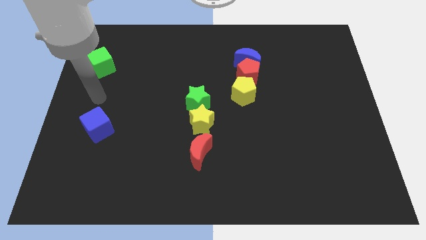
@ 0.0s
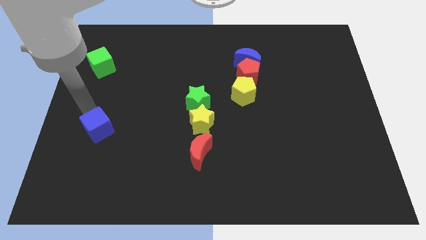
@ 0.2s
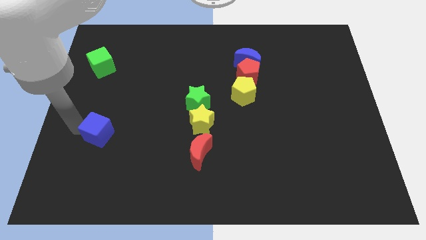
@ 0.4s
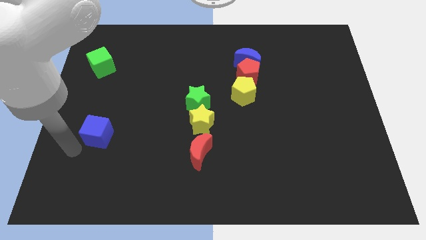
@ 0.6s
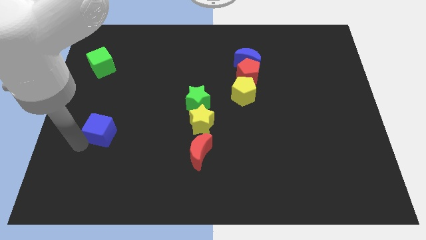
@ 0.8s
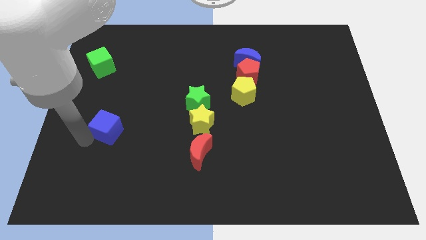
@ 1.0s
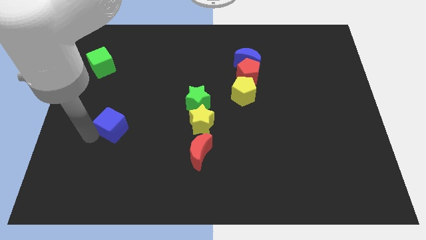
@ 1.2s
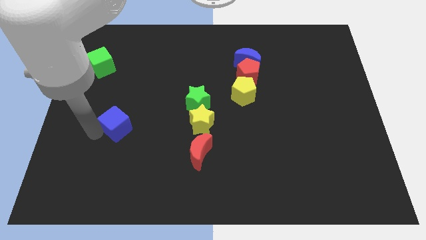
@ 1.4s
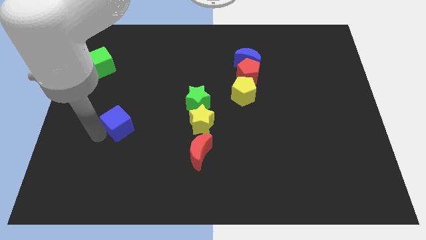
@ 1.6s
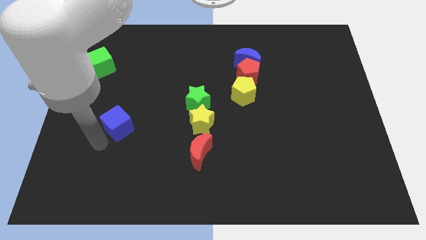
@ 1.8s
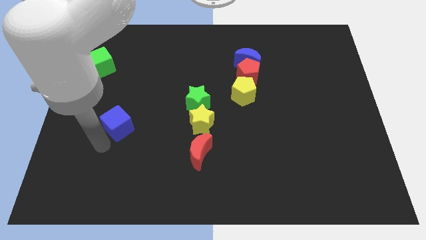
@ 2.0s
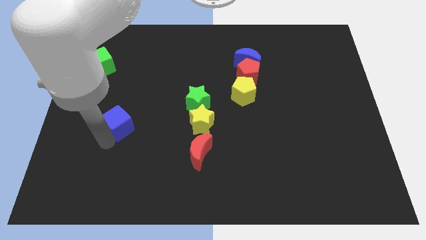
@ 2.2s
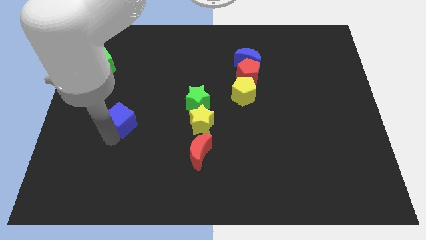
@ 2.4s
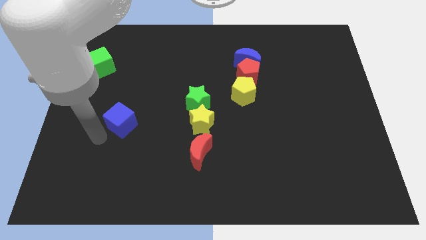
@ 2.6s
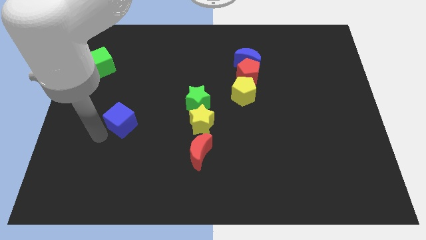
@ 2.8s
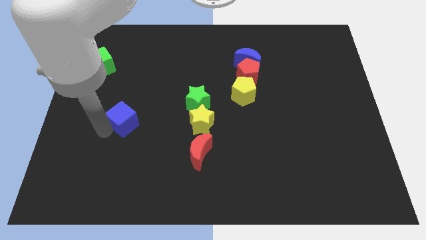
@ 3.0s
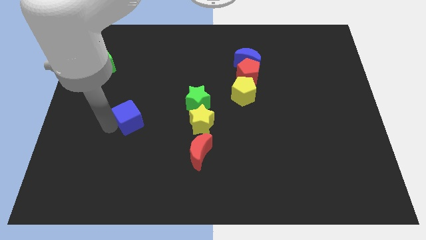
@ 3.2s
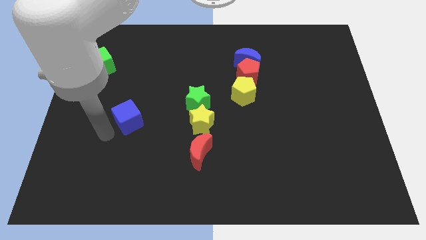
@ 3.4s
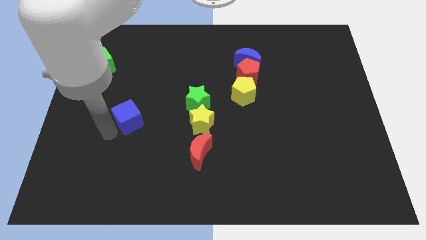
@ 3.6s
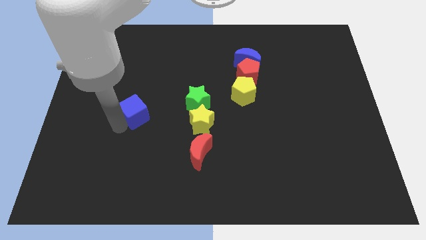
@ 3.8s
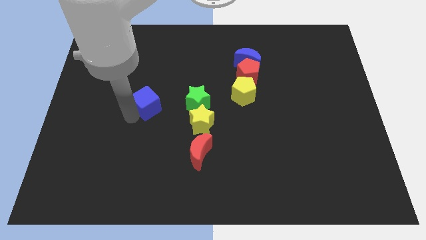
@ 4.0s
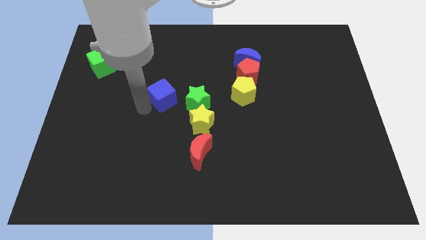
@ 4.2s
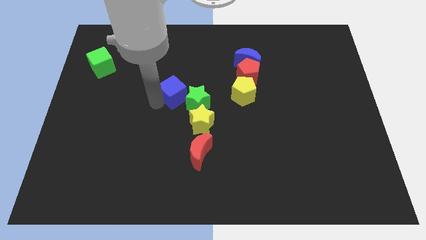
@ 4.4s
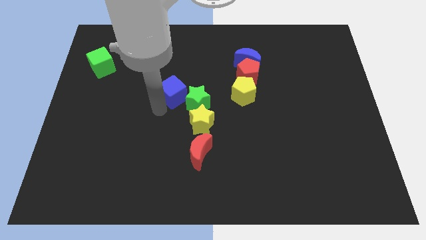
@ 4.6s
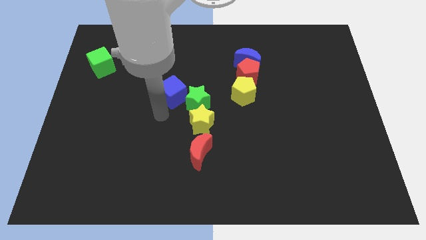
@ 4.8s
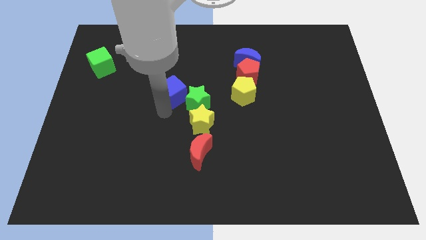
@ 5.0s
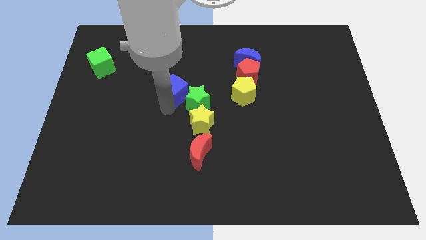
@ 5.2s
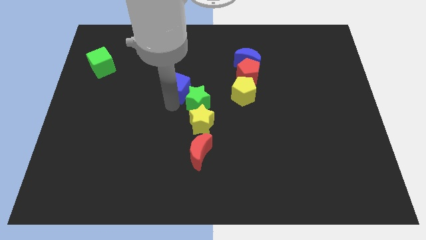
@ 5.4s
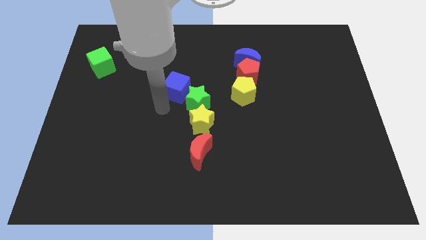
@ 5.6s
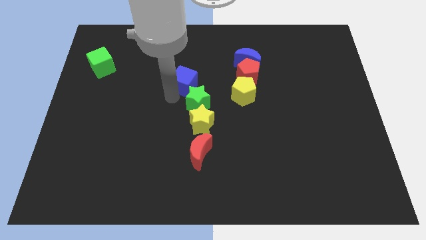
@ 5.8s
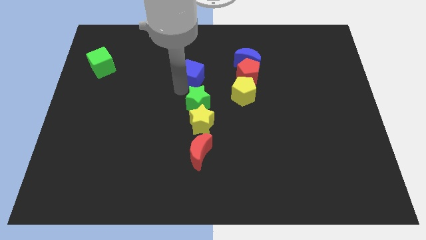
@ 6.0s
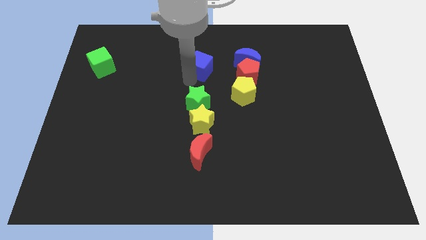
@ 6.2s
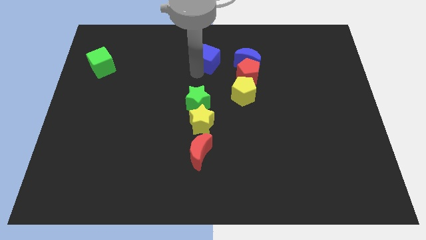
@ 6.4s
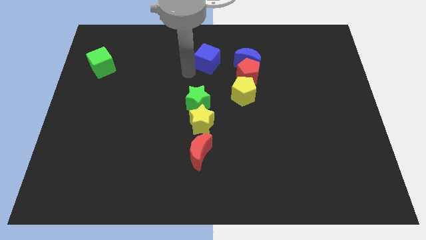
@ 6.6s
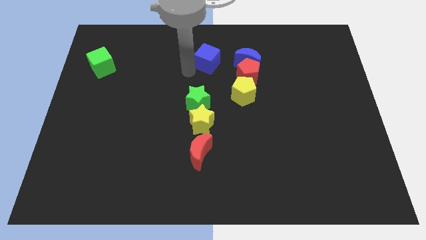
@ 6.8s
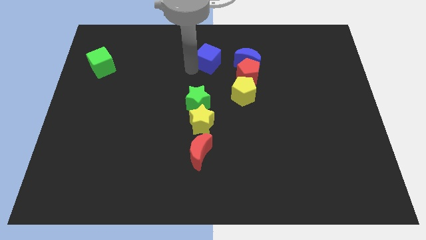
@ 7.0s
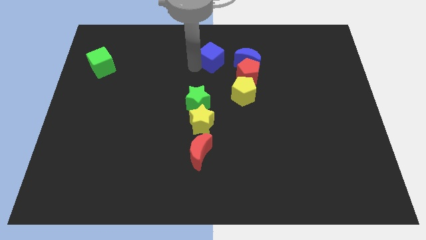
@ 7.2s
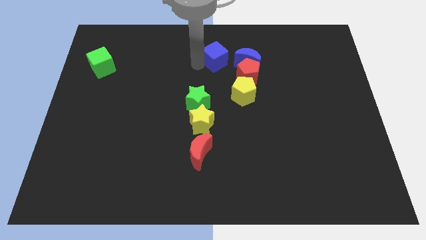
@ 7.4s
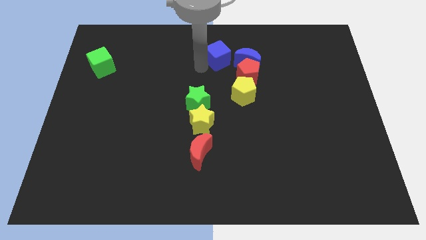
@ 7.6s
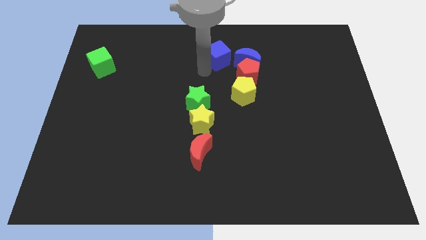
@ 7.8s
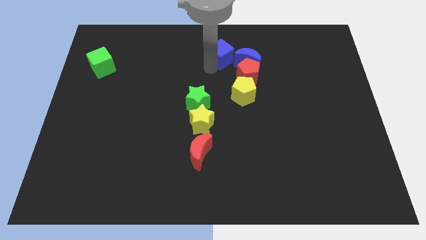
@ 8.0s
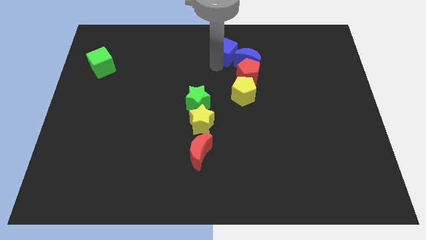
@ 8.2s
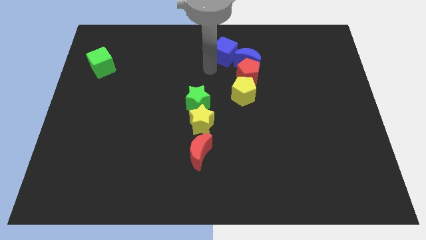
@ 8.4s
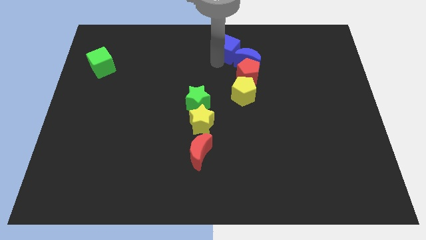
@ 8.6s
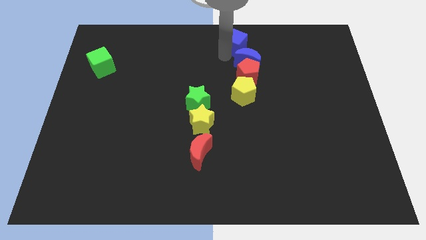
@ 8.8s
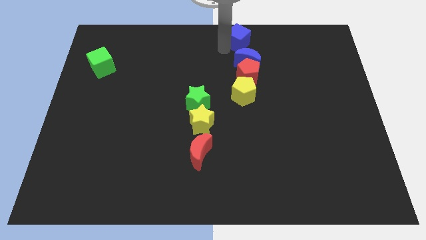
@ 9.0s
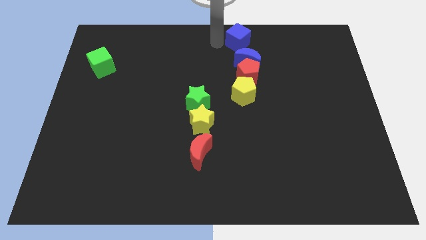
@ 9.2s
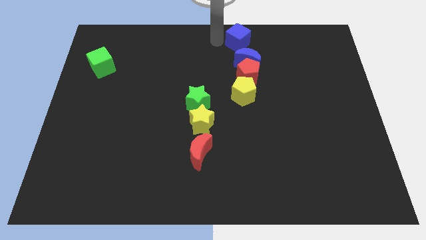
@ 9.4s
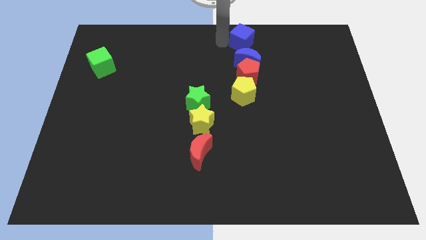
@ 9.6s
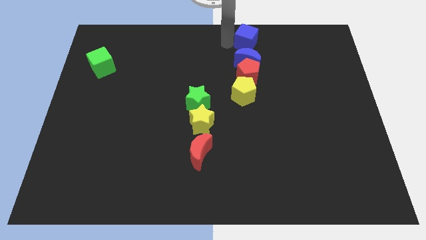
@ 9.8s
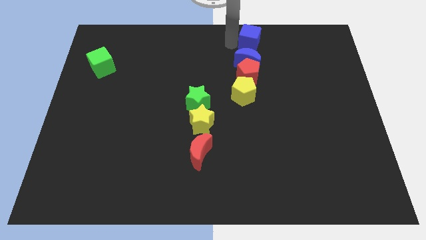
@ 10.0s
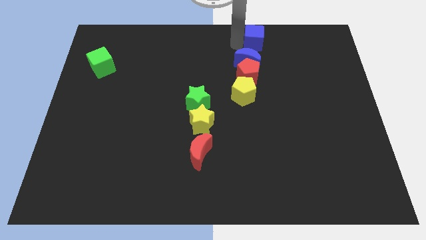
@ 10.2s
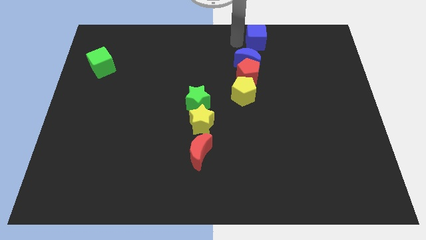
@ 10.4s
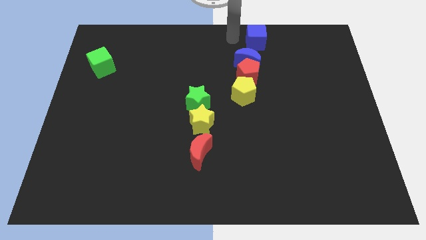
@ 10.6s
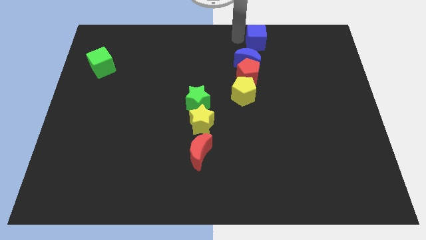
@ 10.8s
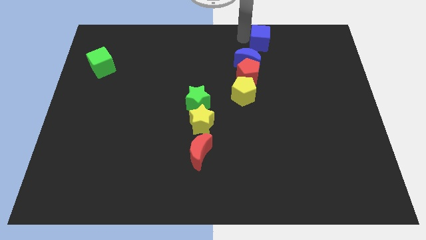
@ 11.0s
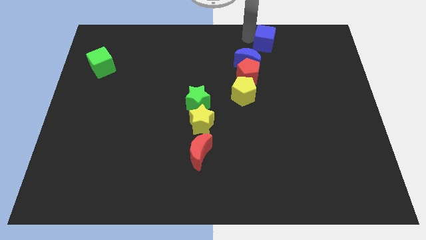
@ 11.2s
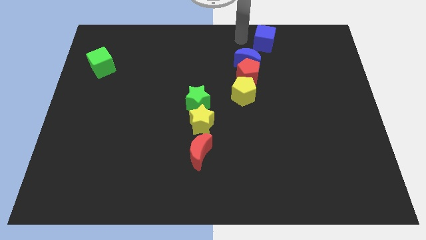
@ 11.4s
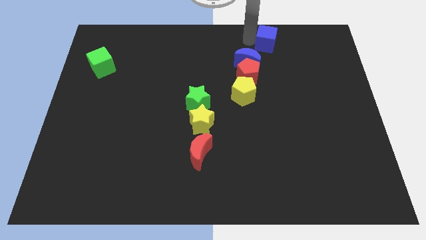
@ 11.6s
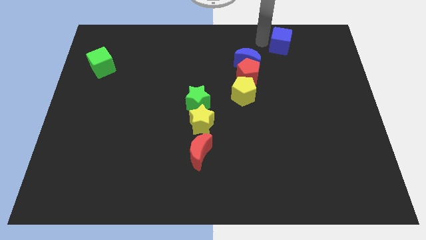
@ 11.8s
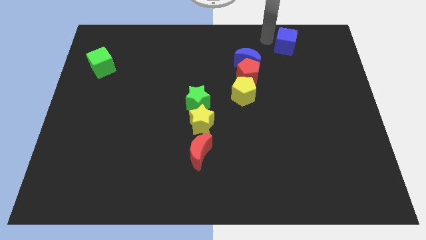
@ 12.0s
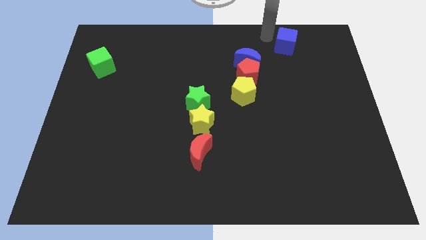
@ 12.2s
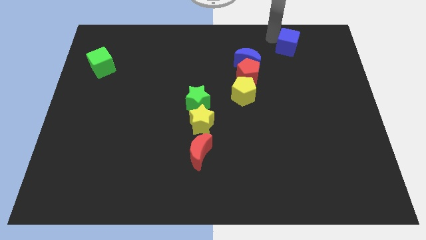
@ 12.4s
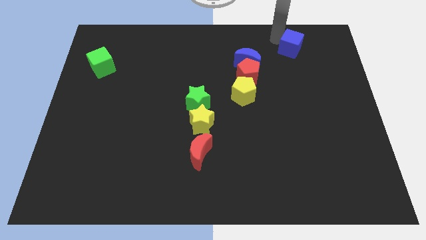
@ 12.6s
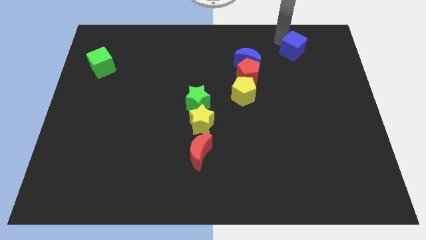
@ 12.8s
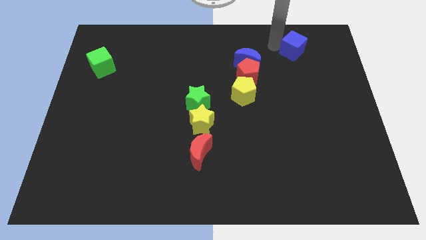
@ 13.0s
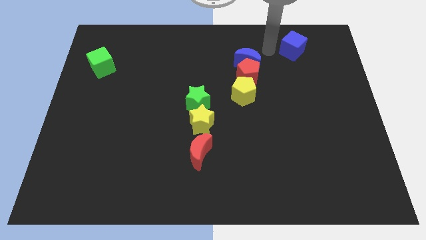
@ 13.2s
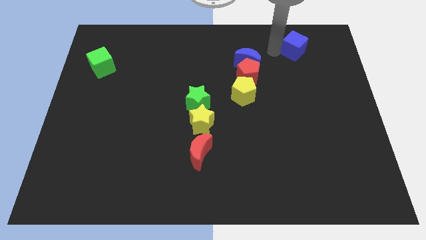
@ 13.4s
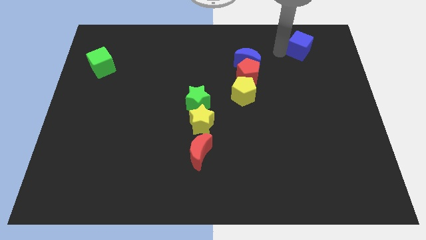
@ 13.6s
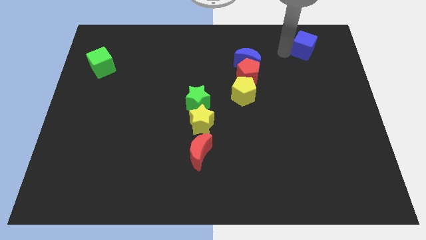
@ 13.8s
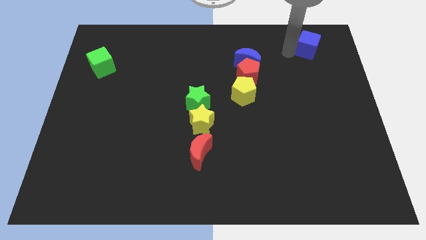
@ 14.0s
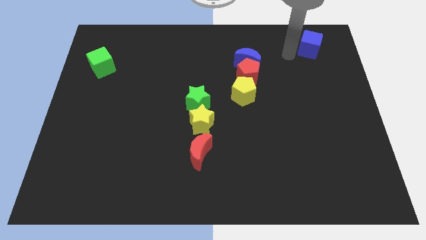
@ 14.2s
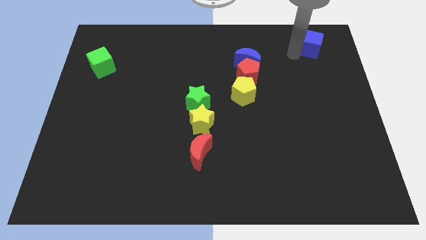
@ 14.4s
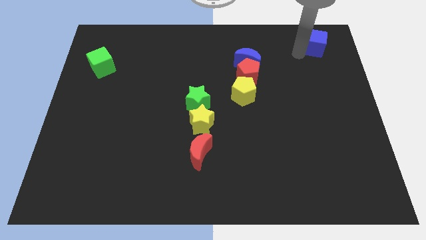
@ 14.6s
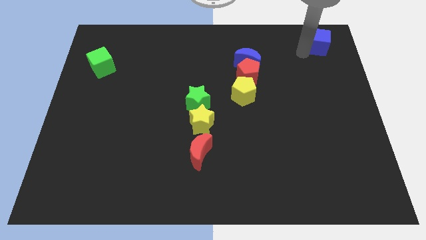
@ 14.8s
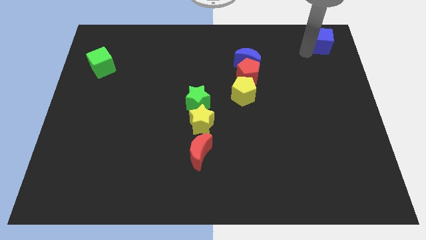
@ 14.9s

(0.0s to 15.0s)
slide the blue cube to the upper right corner
